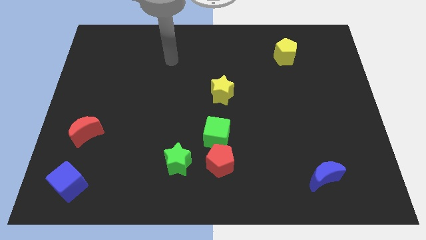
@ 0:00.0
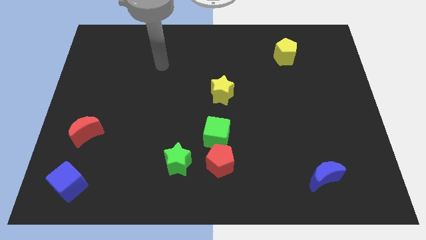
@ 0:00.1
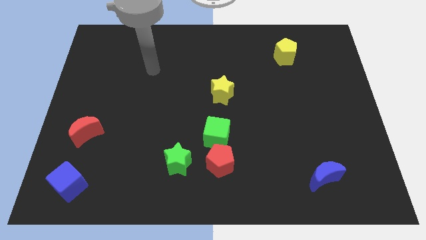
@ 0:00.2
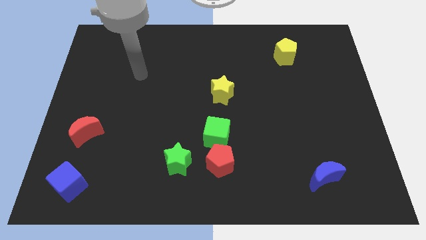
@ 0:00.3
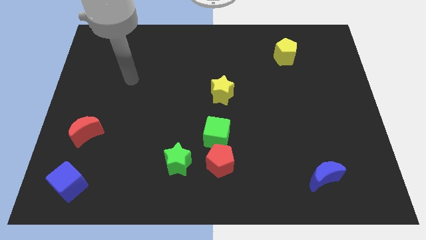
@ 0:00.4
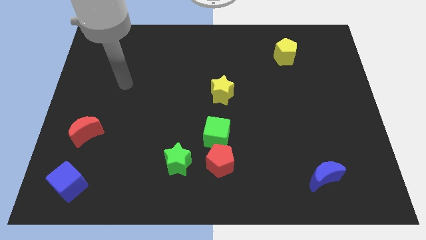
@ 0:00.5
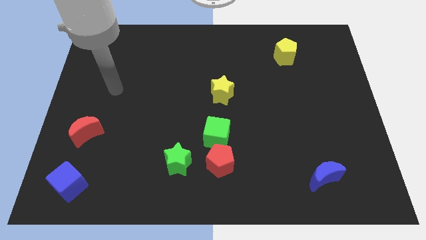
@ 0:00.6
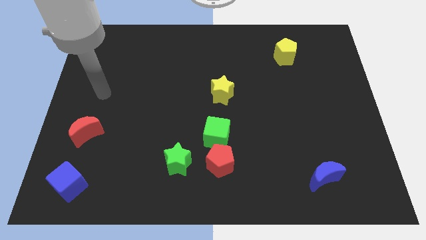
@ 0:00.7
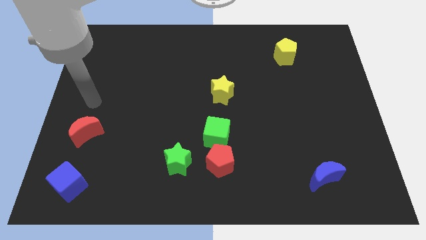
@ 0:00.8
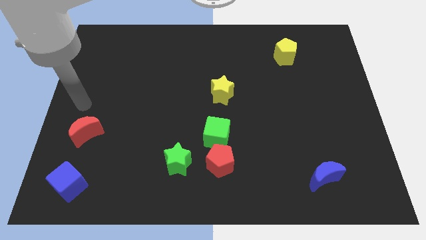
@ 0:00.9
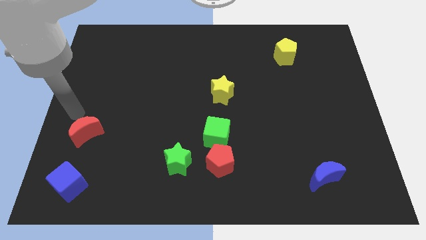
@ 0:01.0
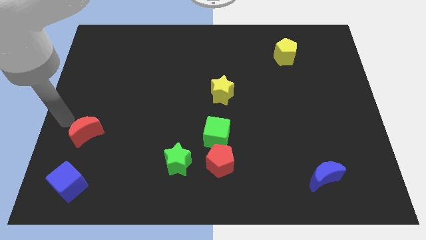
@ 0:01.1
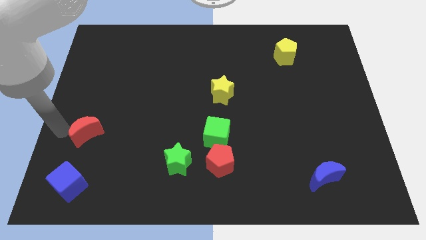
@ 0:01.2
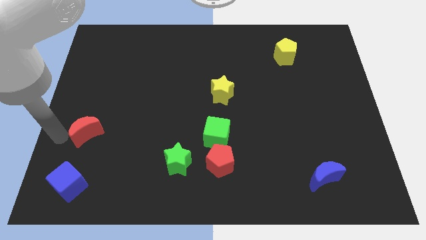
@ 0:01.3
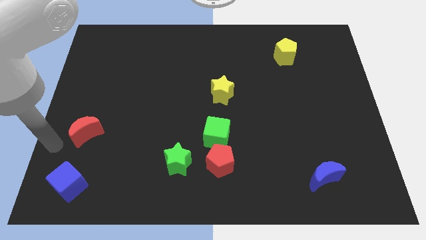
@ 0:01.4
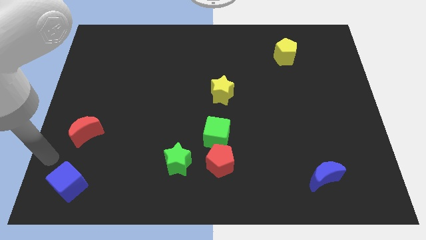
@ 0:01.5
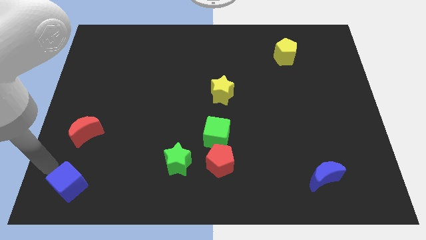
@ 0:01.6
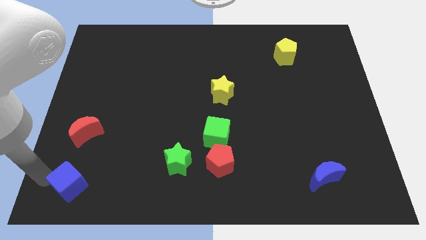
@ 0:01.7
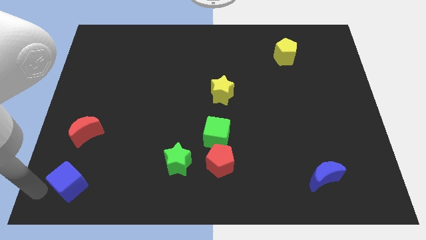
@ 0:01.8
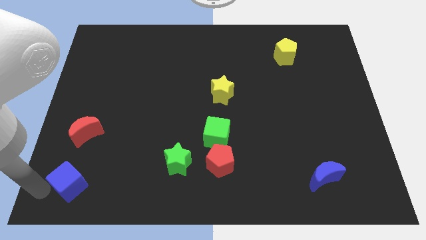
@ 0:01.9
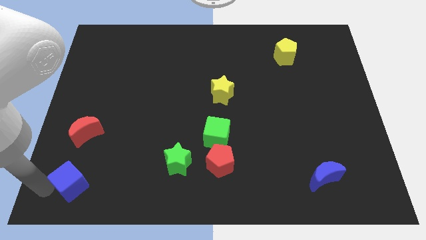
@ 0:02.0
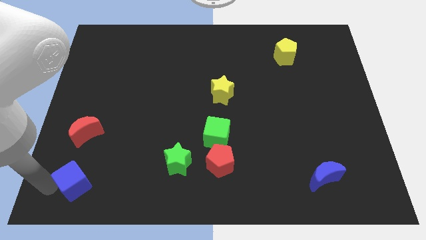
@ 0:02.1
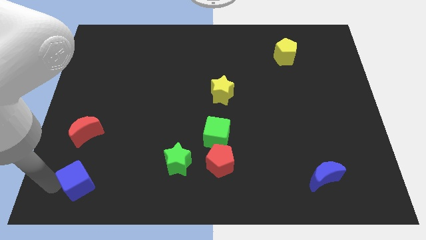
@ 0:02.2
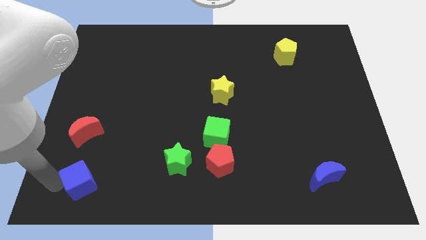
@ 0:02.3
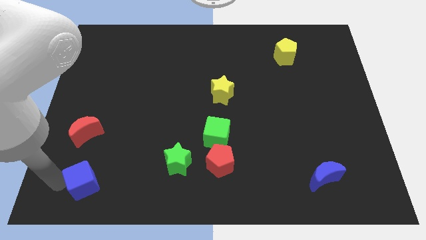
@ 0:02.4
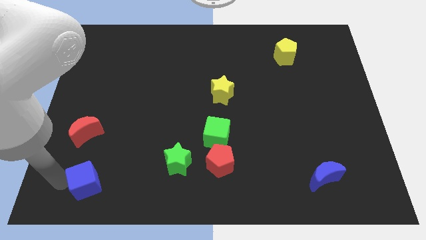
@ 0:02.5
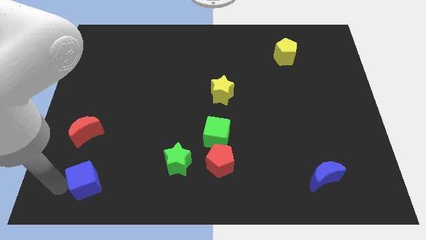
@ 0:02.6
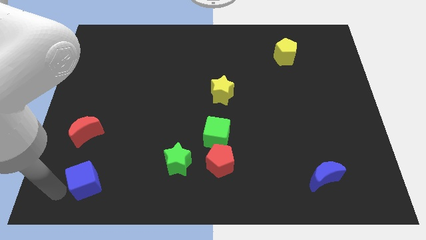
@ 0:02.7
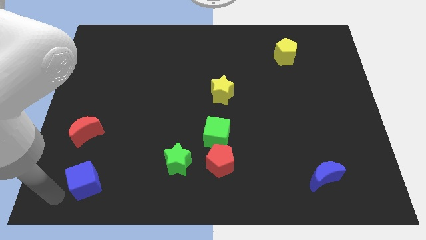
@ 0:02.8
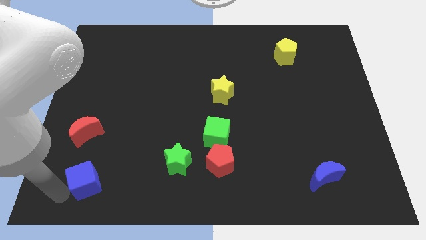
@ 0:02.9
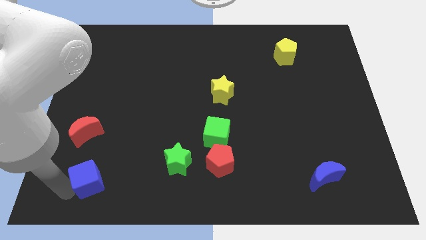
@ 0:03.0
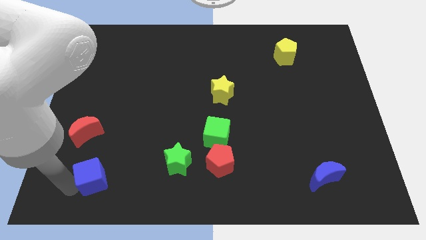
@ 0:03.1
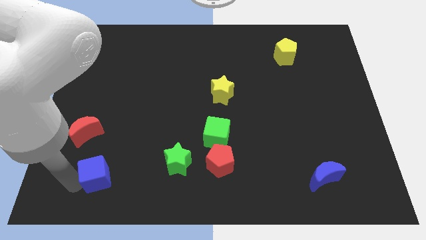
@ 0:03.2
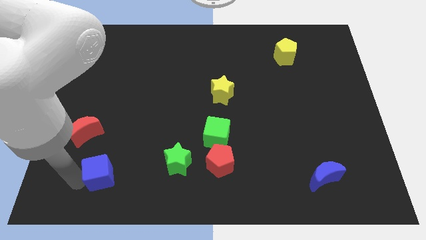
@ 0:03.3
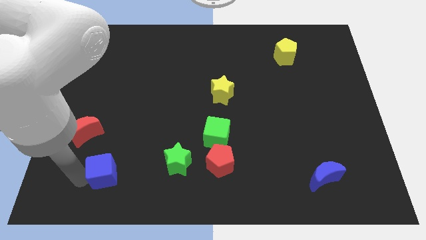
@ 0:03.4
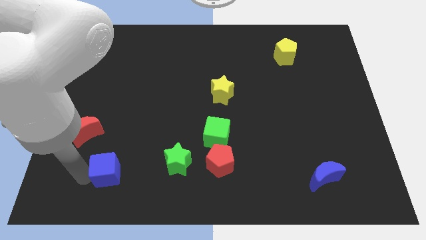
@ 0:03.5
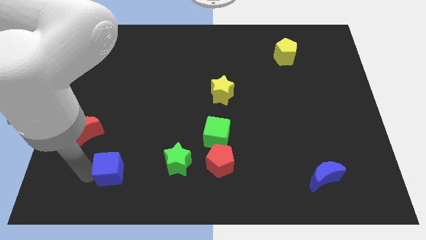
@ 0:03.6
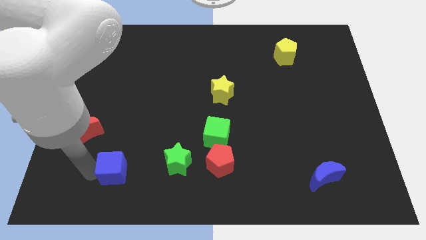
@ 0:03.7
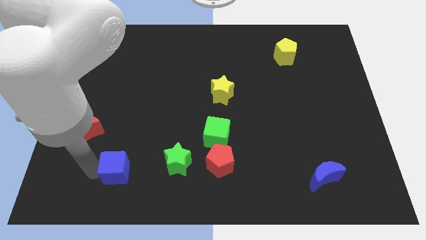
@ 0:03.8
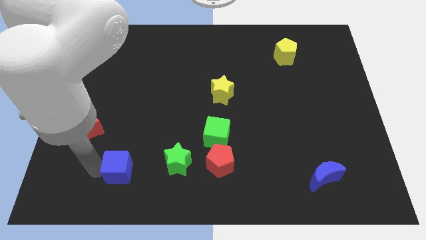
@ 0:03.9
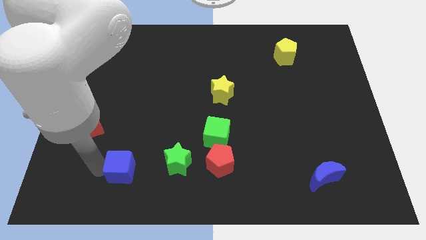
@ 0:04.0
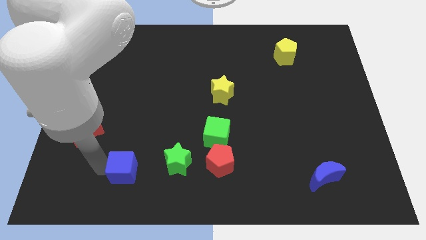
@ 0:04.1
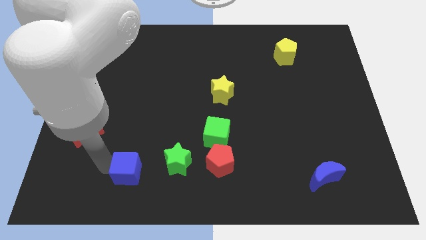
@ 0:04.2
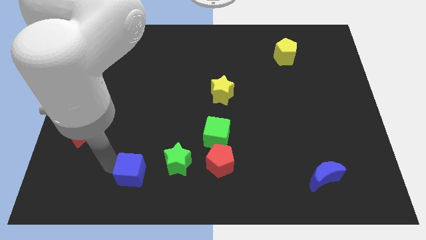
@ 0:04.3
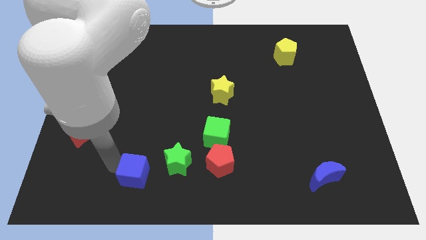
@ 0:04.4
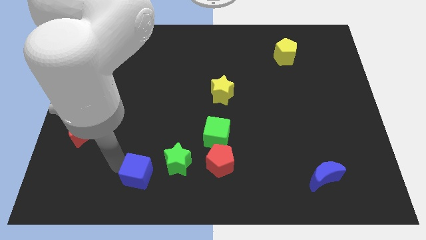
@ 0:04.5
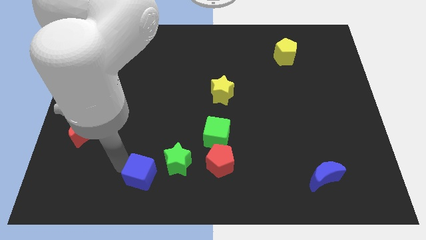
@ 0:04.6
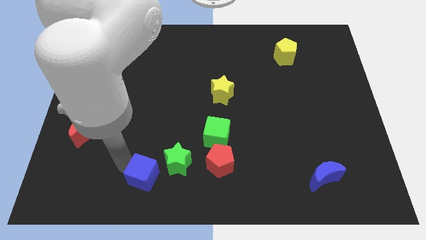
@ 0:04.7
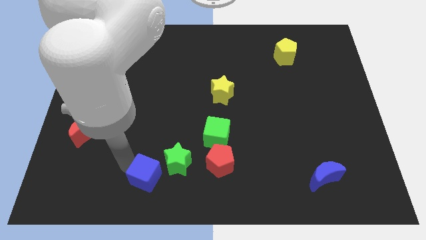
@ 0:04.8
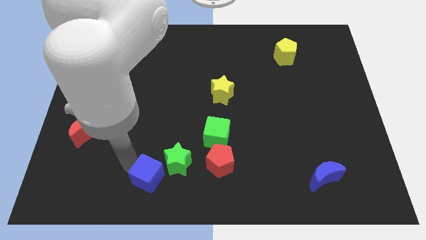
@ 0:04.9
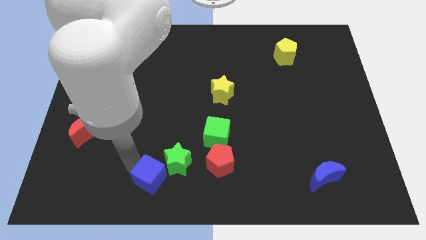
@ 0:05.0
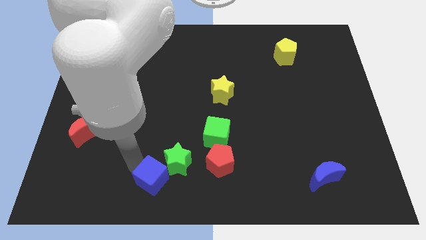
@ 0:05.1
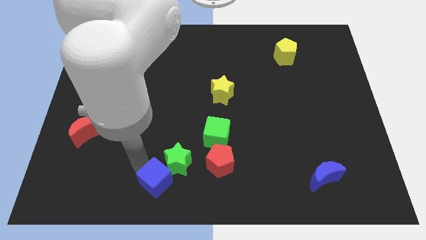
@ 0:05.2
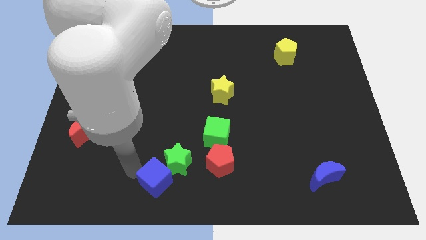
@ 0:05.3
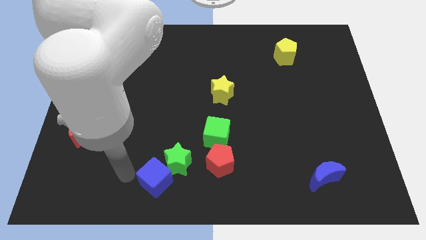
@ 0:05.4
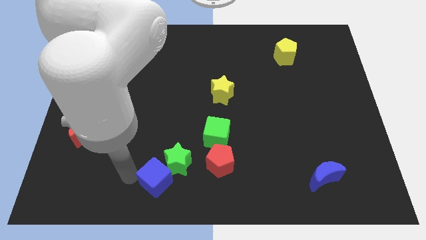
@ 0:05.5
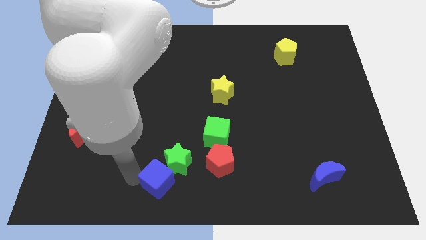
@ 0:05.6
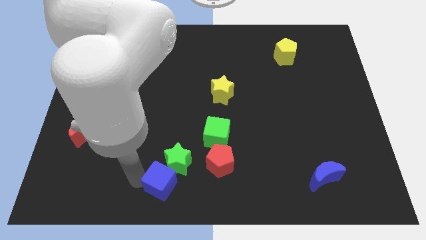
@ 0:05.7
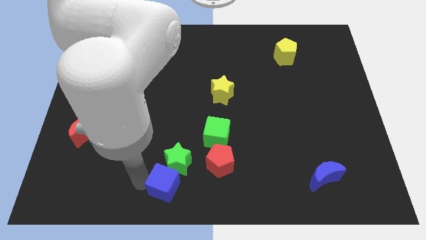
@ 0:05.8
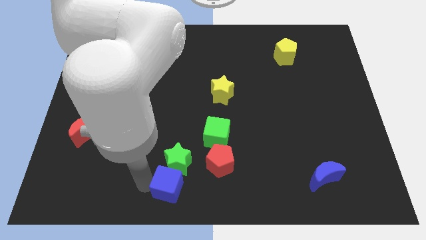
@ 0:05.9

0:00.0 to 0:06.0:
move the blue cube right

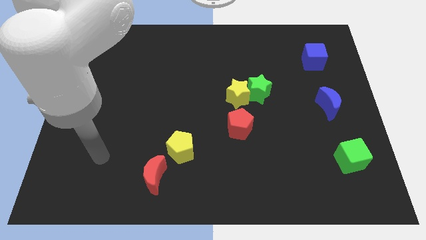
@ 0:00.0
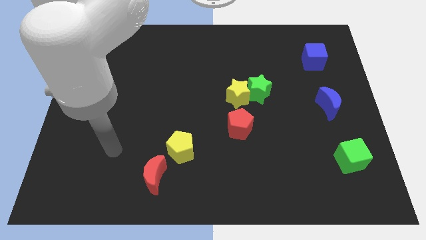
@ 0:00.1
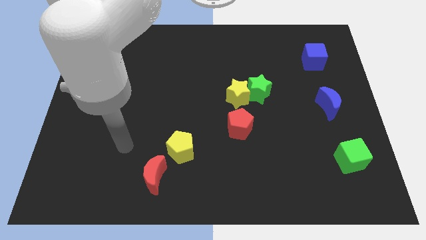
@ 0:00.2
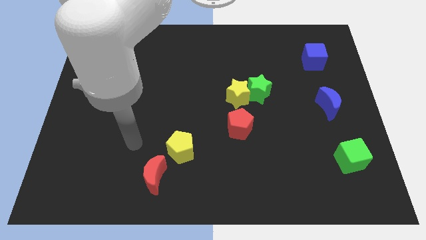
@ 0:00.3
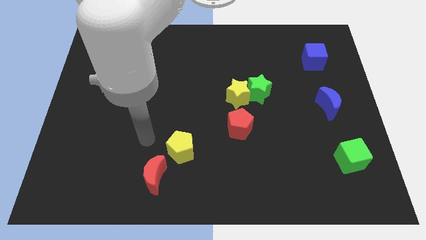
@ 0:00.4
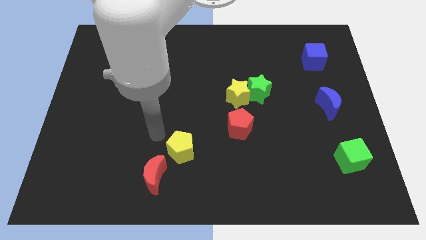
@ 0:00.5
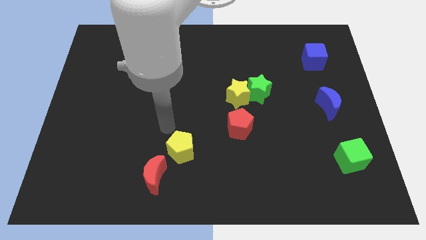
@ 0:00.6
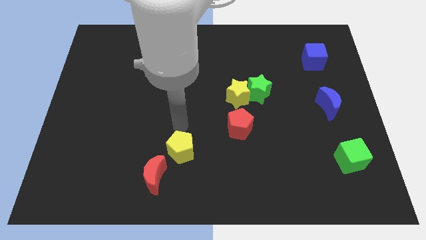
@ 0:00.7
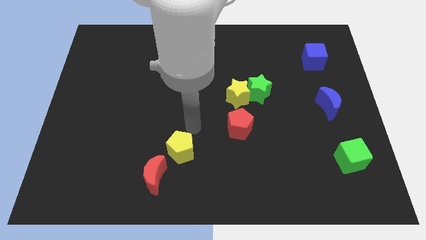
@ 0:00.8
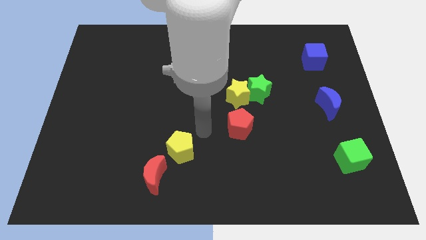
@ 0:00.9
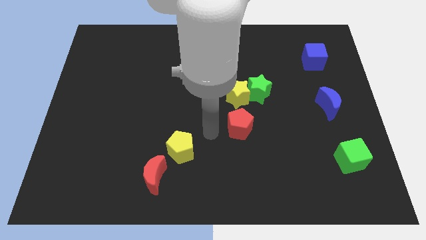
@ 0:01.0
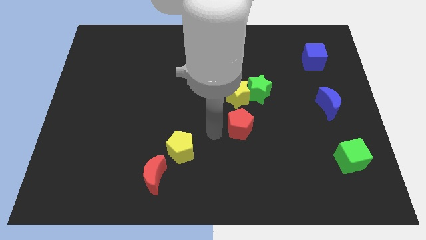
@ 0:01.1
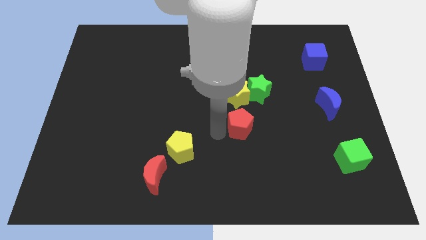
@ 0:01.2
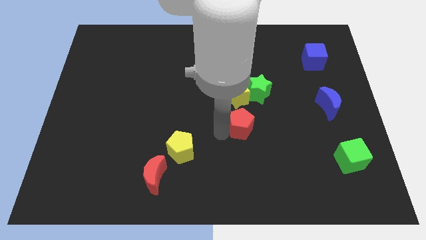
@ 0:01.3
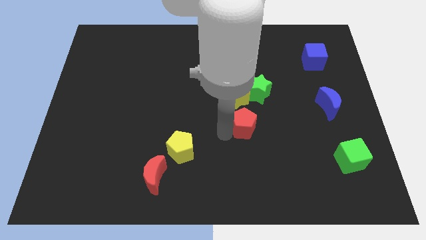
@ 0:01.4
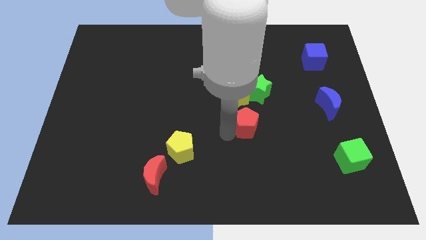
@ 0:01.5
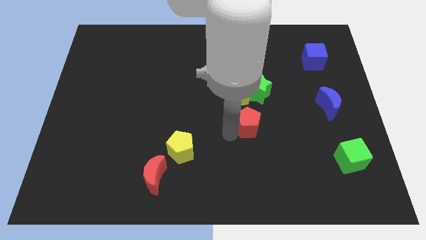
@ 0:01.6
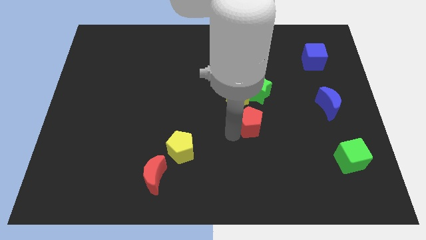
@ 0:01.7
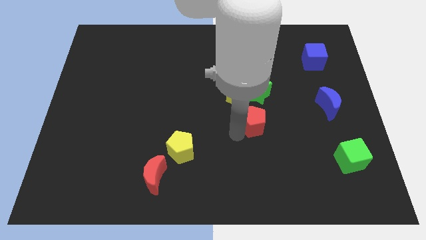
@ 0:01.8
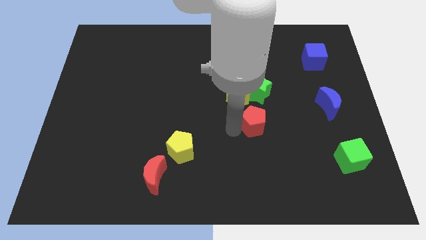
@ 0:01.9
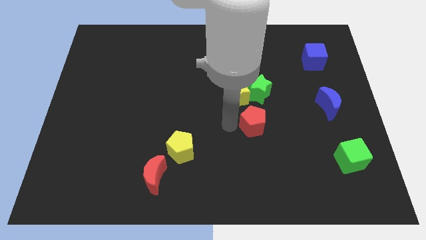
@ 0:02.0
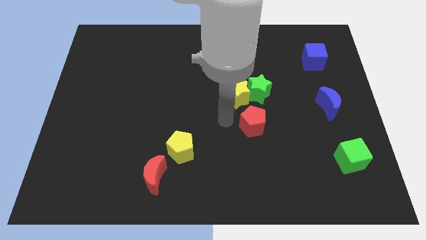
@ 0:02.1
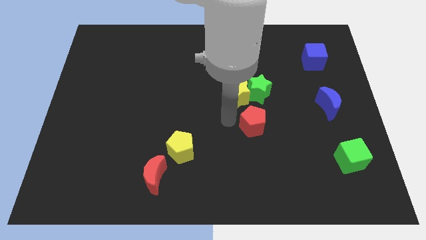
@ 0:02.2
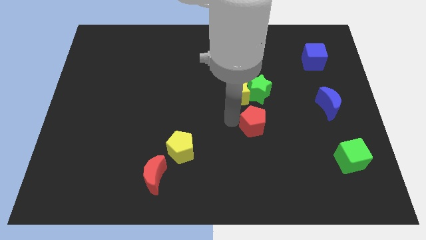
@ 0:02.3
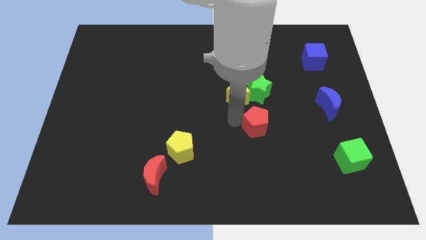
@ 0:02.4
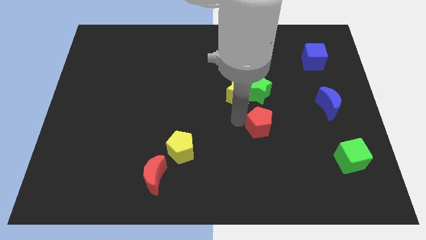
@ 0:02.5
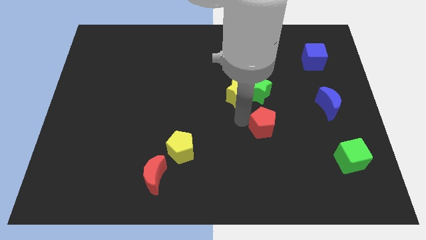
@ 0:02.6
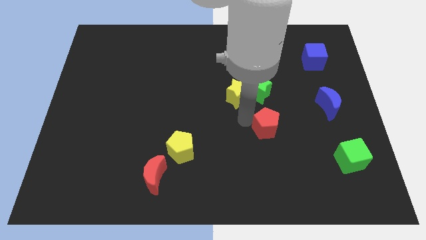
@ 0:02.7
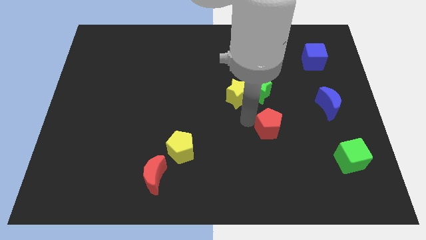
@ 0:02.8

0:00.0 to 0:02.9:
slide the red pentagon a bit right
